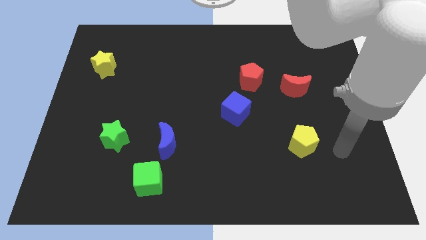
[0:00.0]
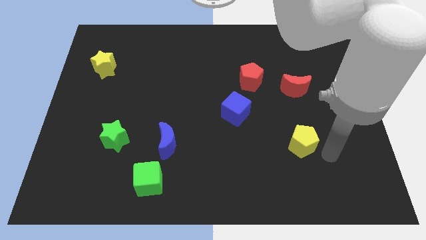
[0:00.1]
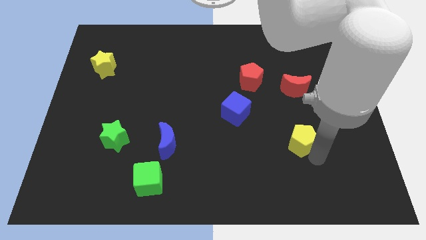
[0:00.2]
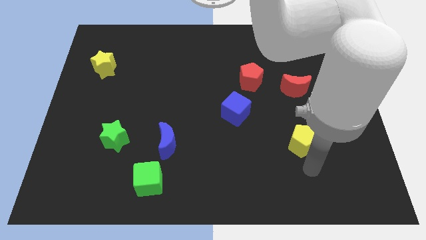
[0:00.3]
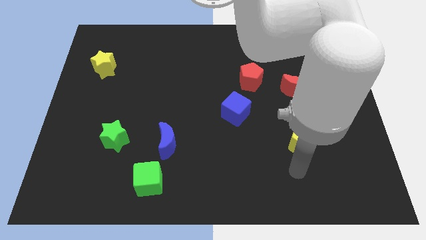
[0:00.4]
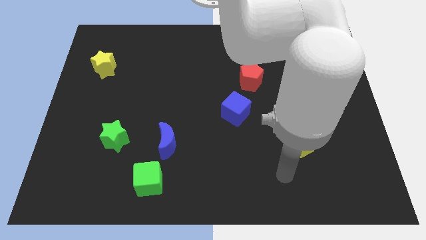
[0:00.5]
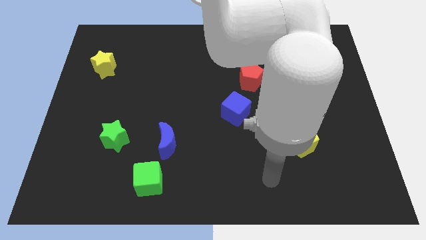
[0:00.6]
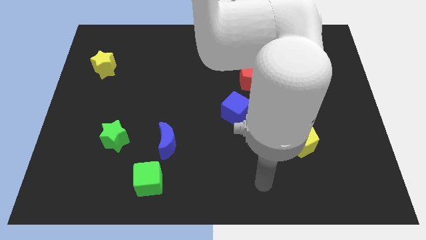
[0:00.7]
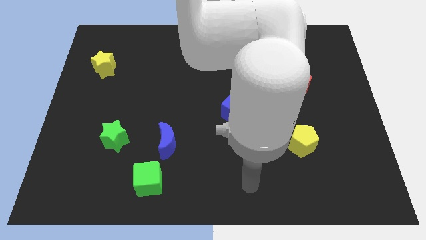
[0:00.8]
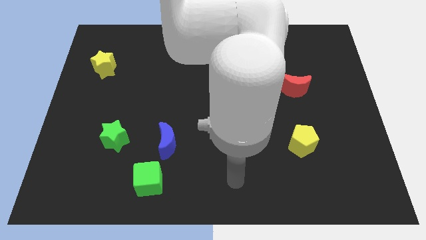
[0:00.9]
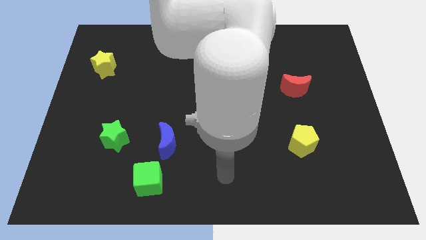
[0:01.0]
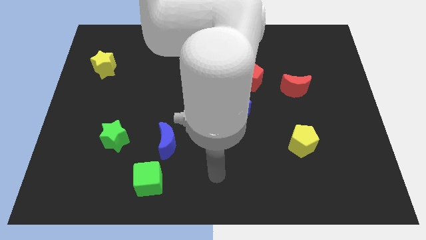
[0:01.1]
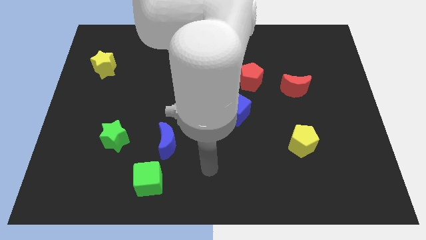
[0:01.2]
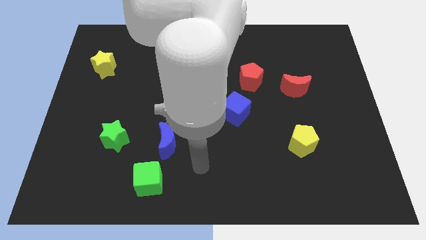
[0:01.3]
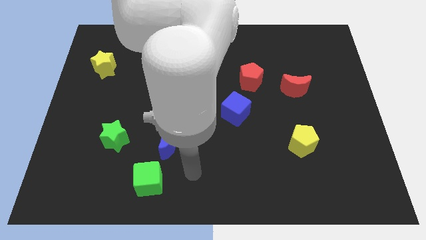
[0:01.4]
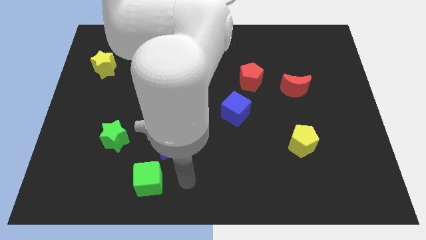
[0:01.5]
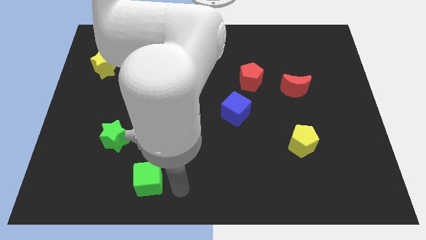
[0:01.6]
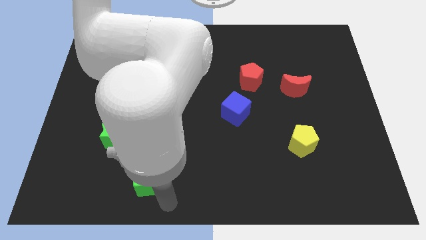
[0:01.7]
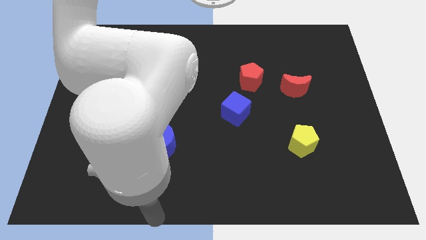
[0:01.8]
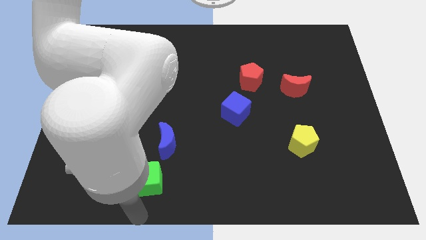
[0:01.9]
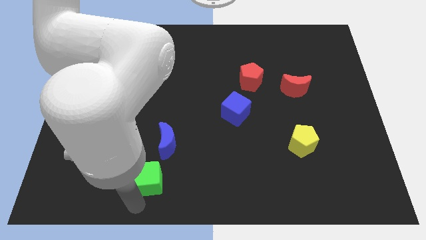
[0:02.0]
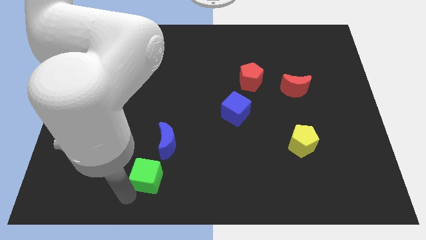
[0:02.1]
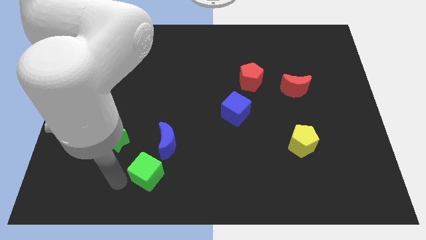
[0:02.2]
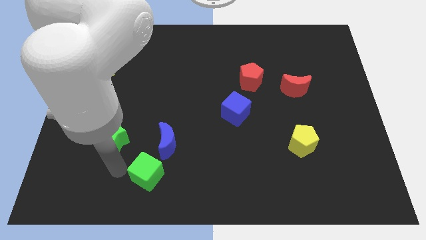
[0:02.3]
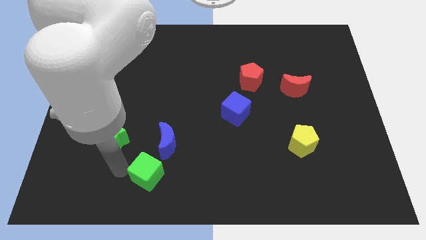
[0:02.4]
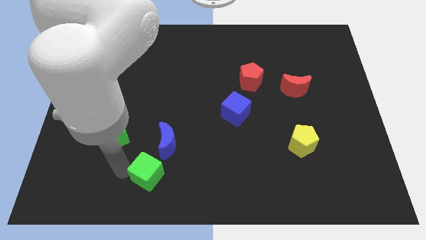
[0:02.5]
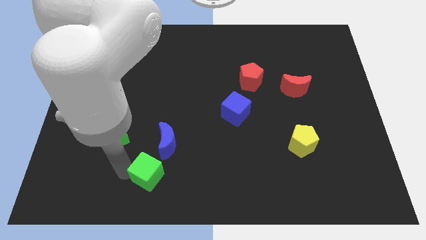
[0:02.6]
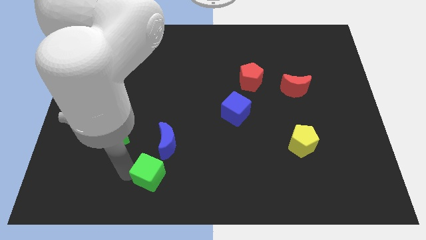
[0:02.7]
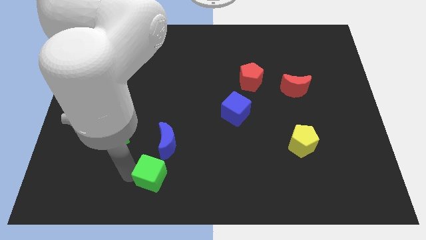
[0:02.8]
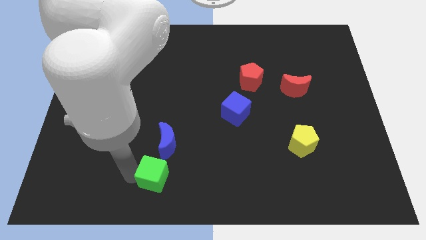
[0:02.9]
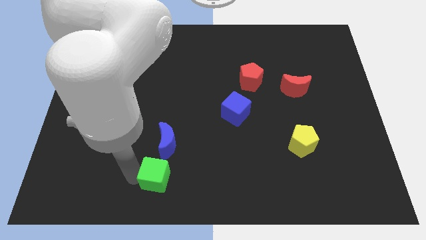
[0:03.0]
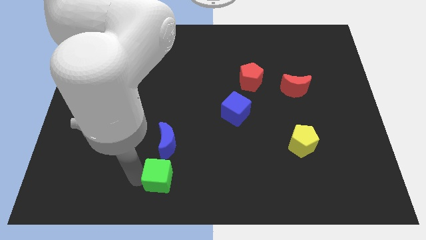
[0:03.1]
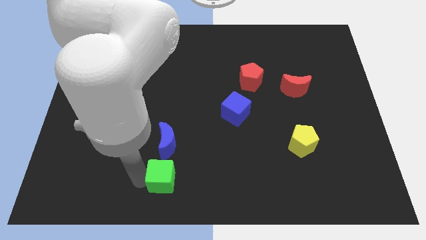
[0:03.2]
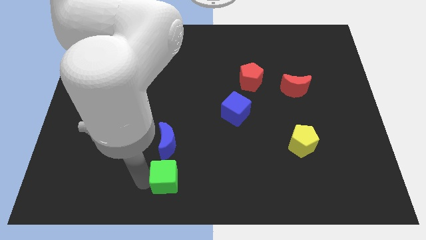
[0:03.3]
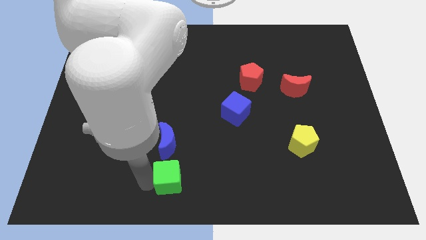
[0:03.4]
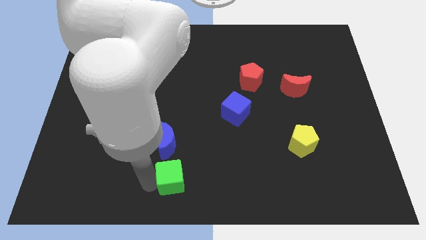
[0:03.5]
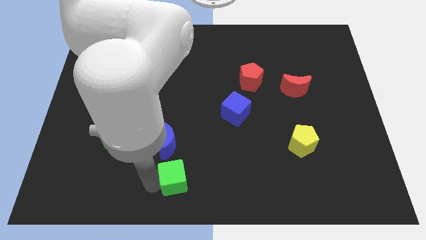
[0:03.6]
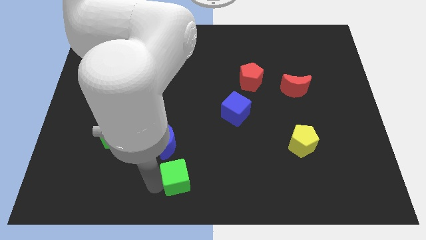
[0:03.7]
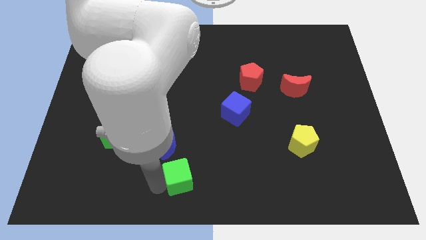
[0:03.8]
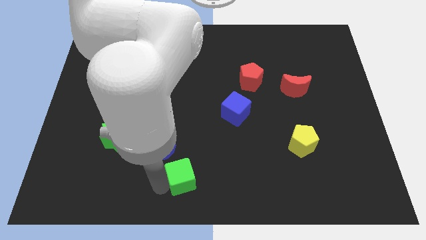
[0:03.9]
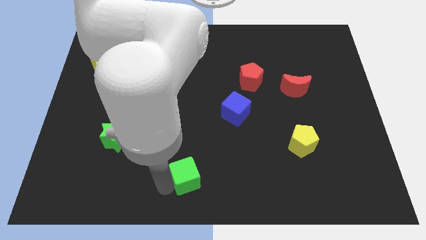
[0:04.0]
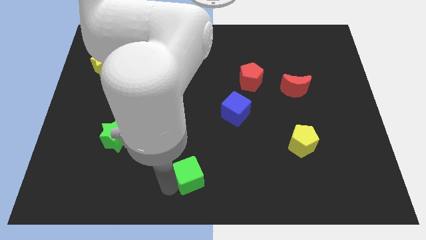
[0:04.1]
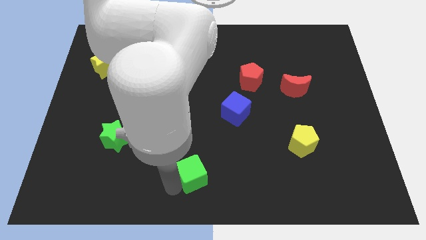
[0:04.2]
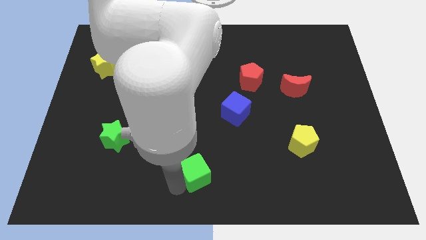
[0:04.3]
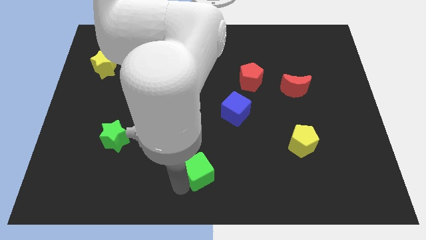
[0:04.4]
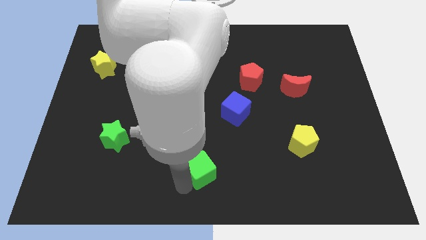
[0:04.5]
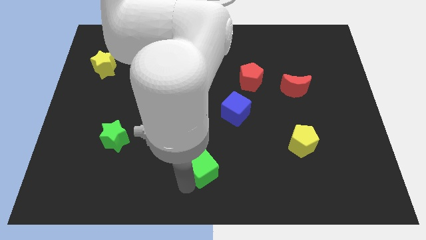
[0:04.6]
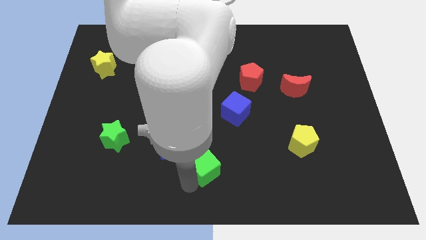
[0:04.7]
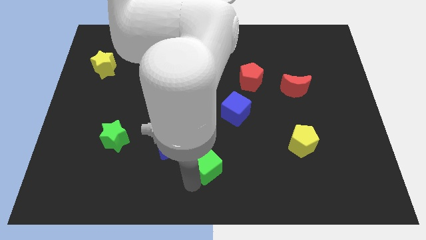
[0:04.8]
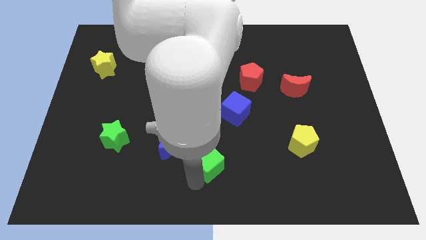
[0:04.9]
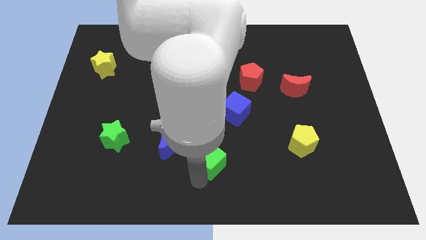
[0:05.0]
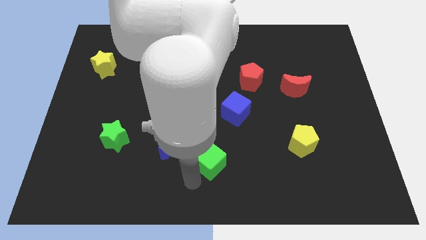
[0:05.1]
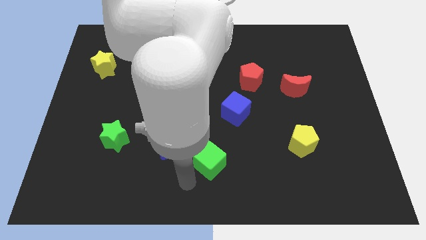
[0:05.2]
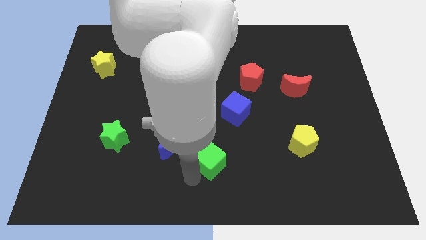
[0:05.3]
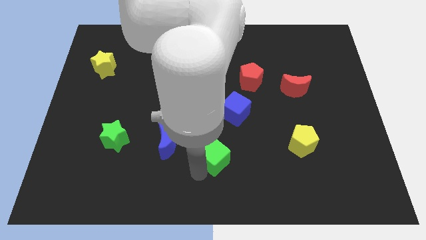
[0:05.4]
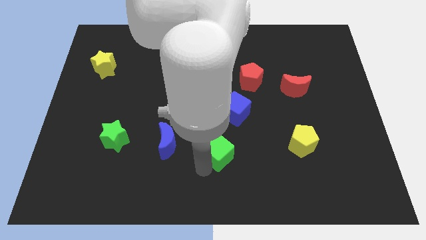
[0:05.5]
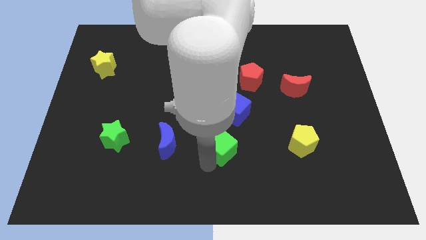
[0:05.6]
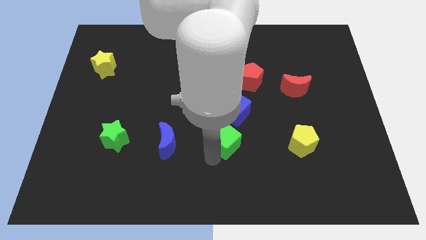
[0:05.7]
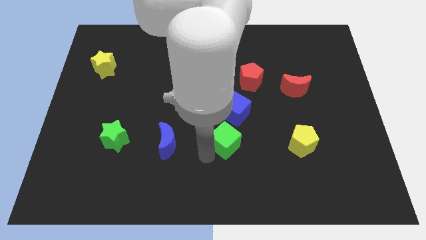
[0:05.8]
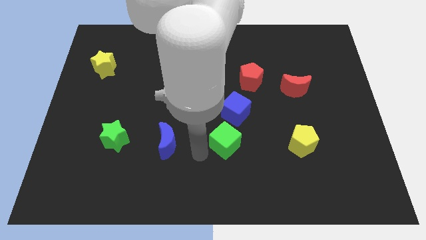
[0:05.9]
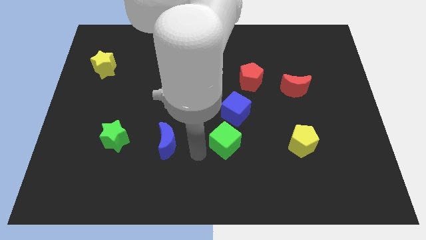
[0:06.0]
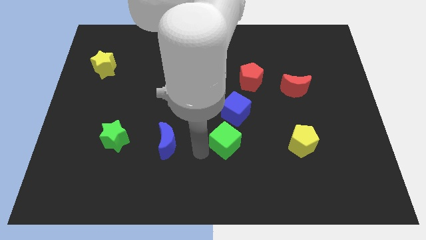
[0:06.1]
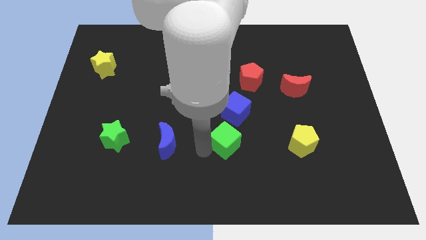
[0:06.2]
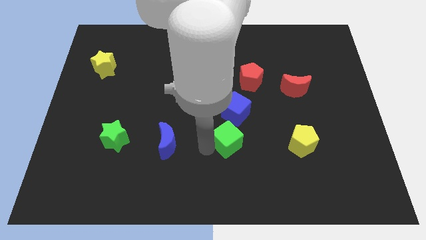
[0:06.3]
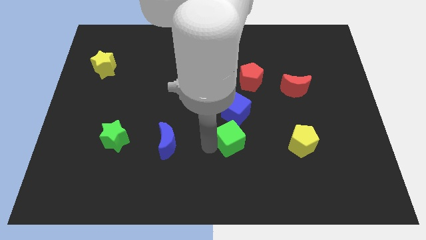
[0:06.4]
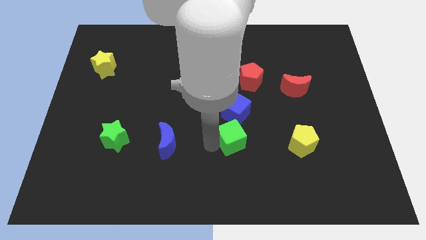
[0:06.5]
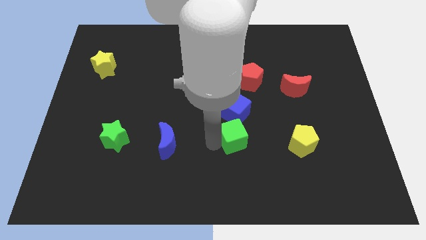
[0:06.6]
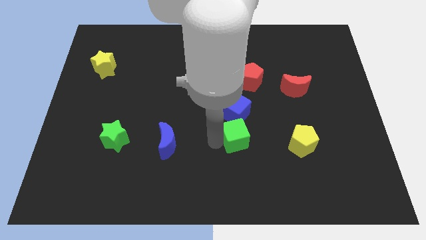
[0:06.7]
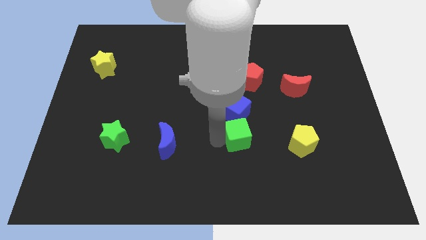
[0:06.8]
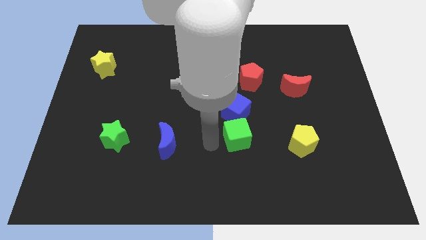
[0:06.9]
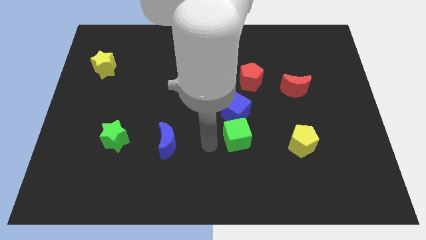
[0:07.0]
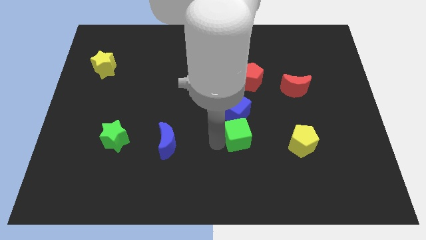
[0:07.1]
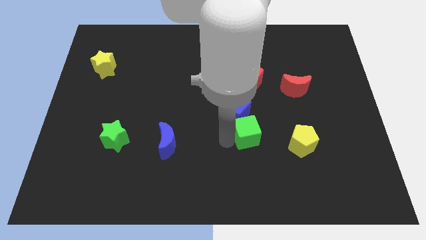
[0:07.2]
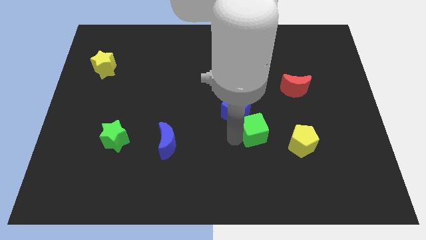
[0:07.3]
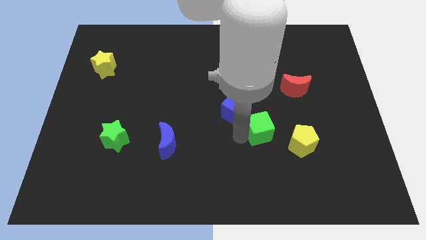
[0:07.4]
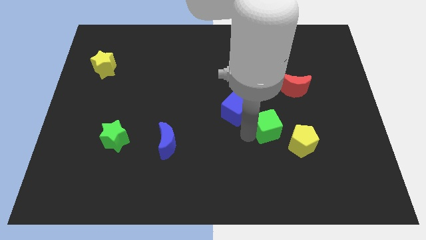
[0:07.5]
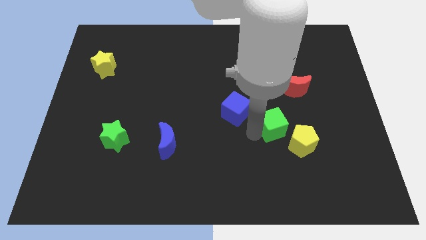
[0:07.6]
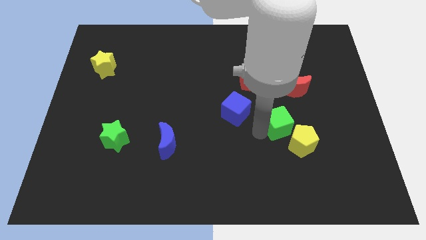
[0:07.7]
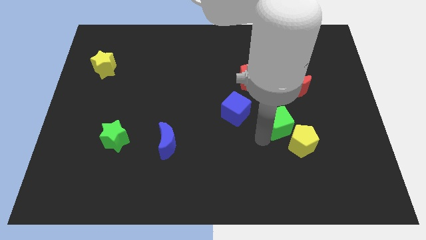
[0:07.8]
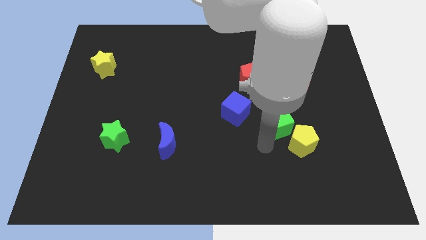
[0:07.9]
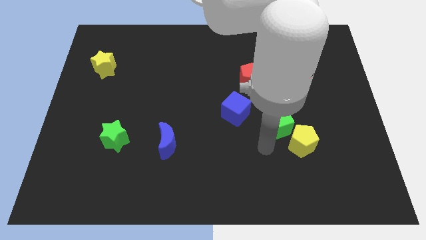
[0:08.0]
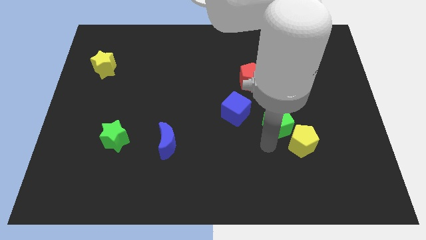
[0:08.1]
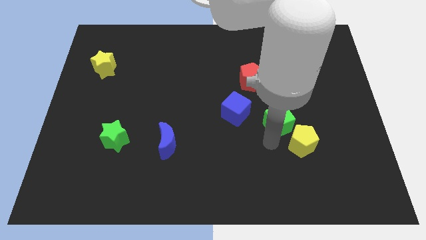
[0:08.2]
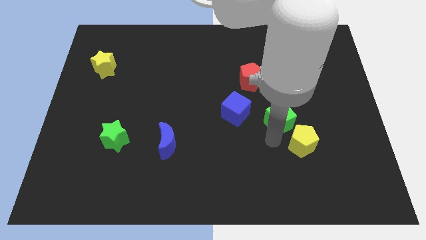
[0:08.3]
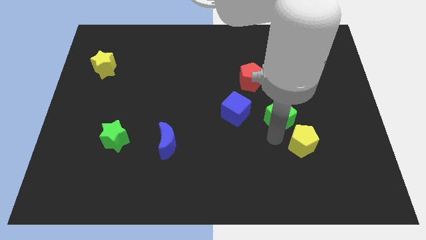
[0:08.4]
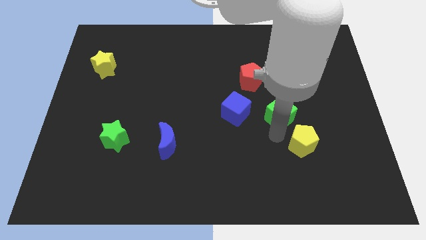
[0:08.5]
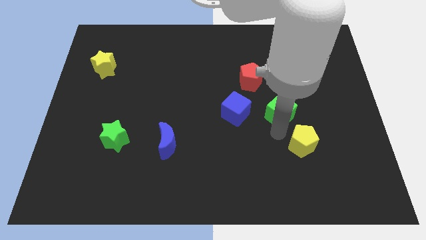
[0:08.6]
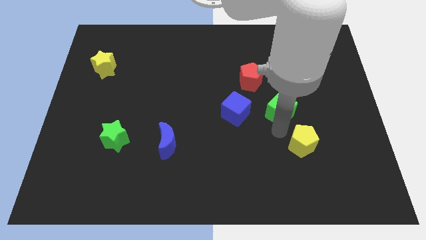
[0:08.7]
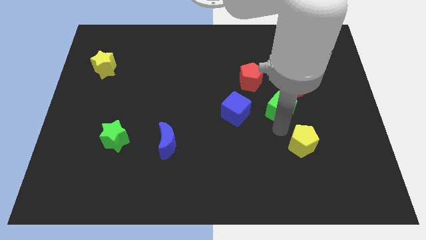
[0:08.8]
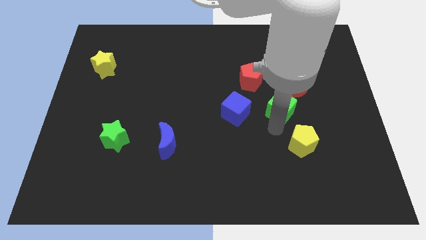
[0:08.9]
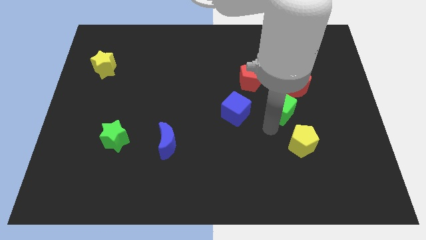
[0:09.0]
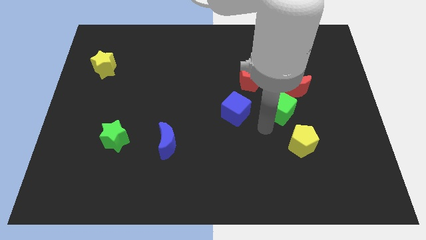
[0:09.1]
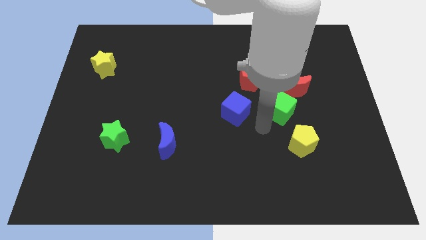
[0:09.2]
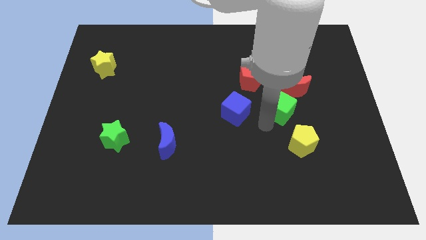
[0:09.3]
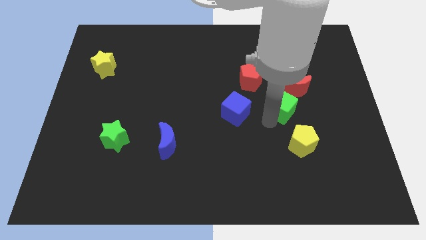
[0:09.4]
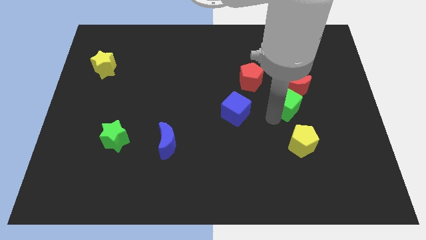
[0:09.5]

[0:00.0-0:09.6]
put the green cube towards the red moon
